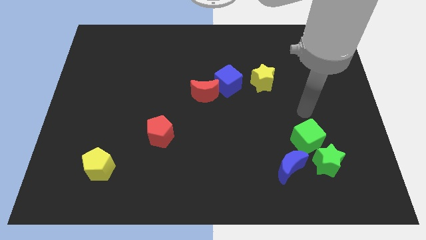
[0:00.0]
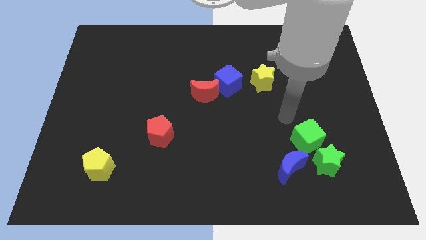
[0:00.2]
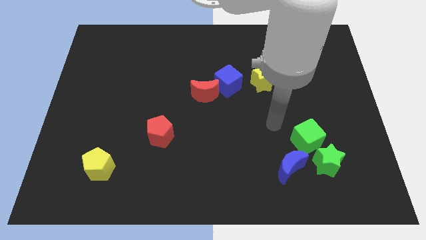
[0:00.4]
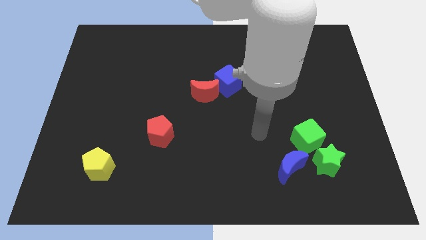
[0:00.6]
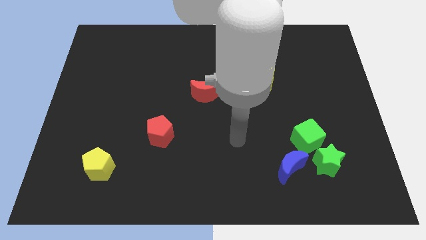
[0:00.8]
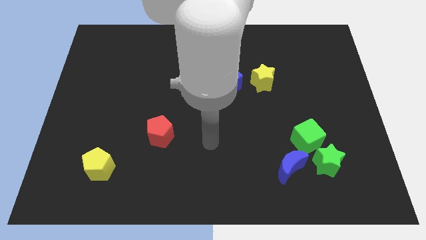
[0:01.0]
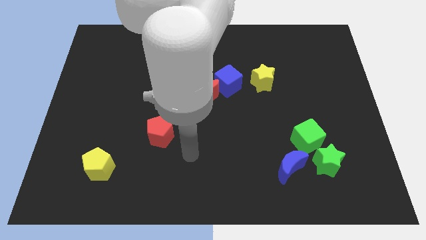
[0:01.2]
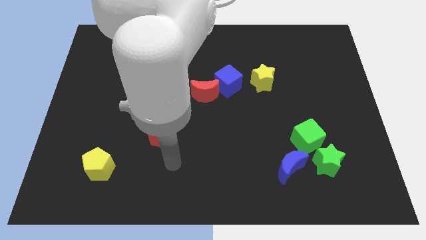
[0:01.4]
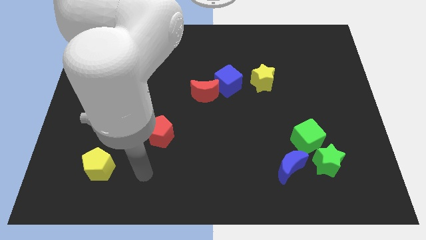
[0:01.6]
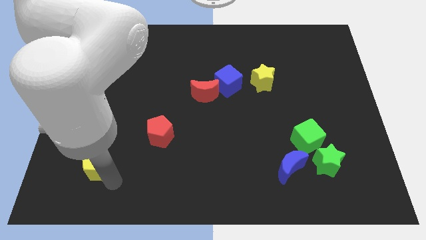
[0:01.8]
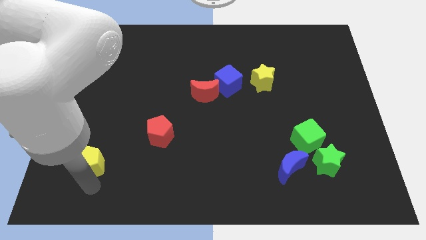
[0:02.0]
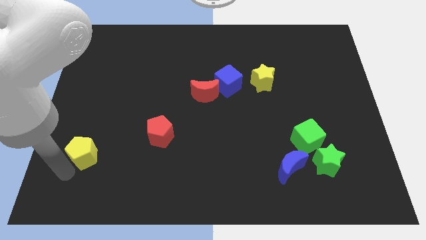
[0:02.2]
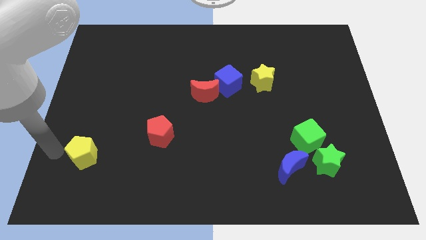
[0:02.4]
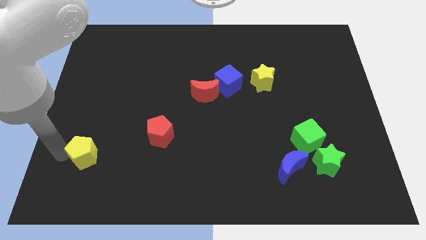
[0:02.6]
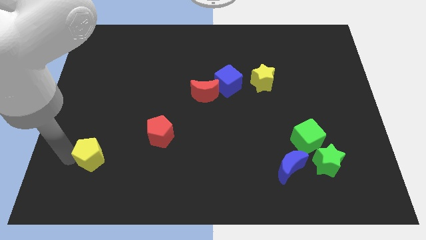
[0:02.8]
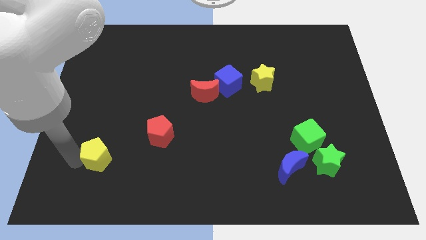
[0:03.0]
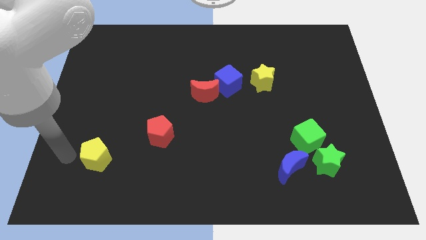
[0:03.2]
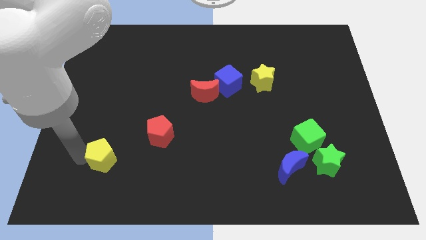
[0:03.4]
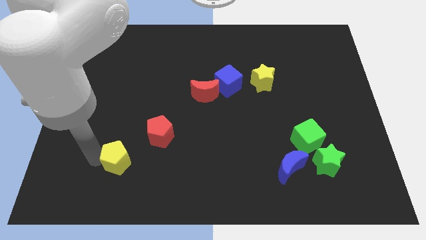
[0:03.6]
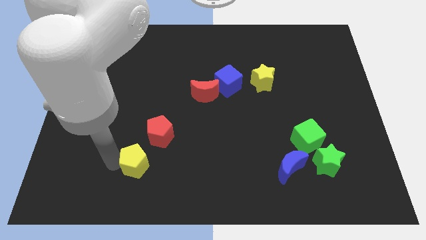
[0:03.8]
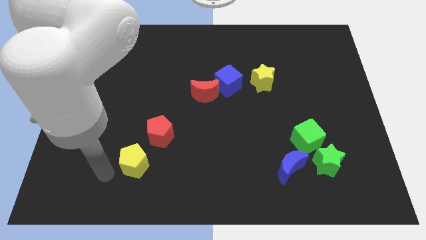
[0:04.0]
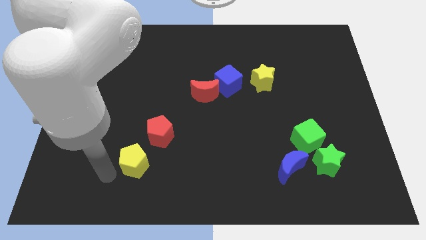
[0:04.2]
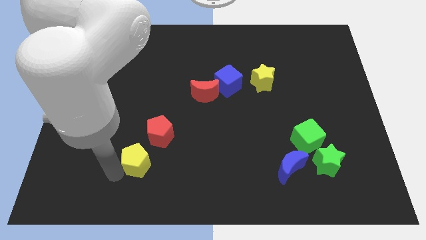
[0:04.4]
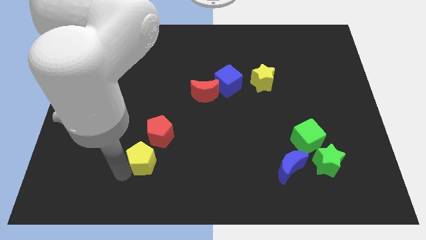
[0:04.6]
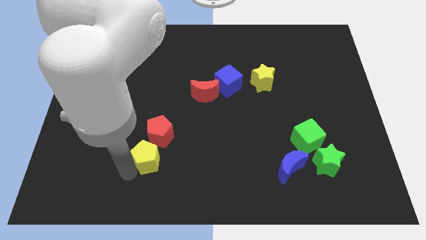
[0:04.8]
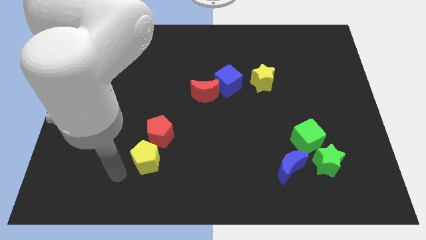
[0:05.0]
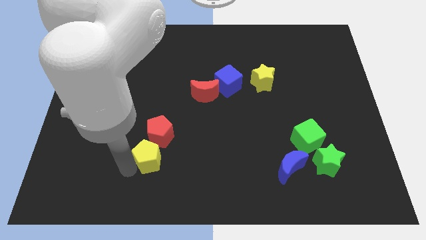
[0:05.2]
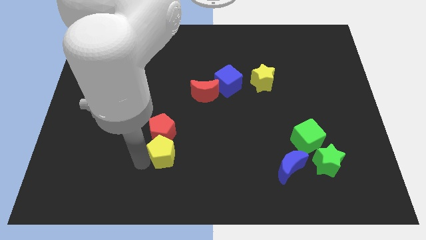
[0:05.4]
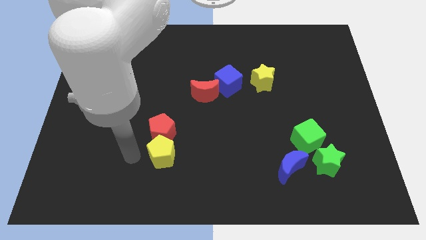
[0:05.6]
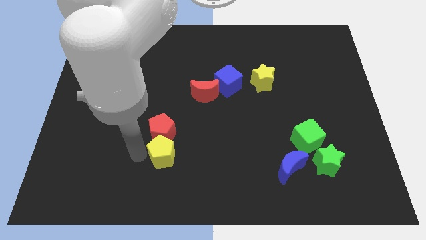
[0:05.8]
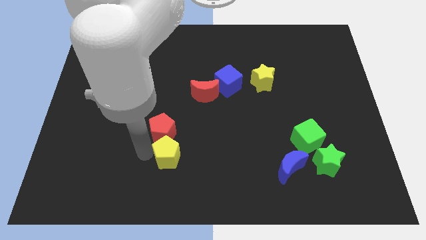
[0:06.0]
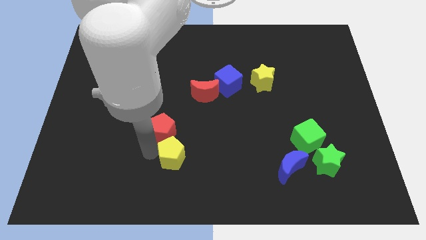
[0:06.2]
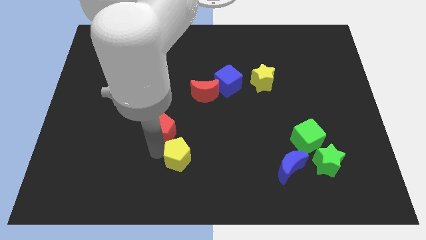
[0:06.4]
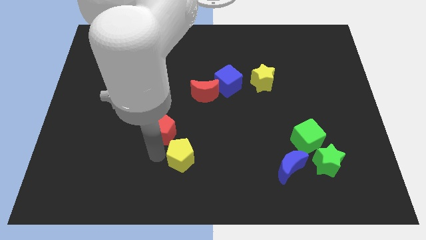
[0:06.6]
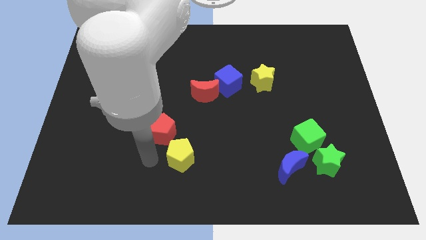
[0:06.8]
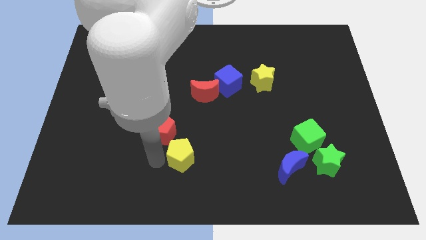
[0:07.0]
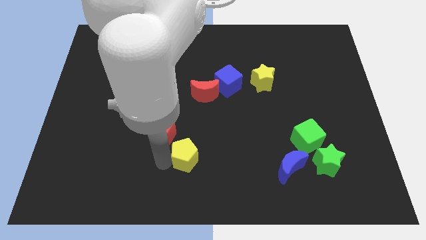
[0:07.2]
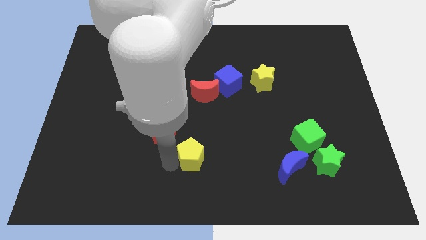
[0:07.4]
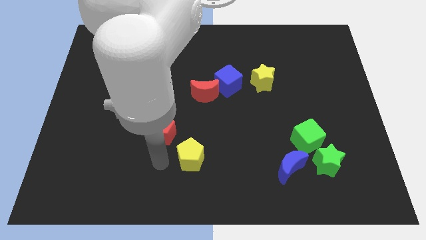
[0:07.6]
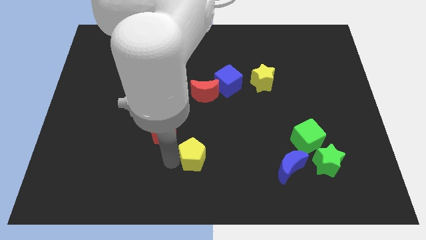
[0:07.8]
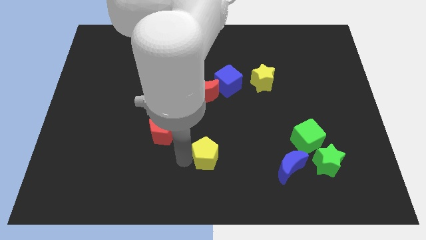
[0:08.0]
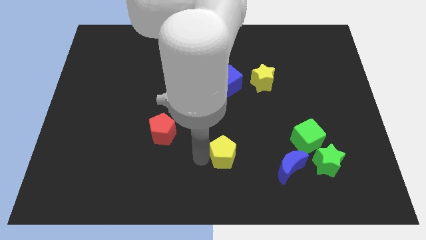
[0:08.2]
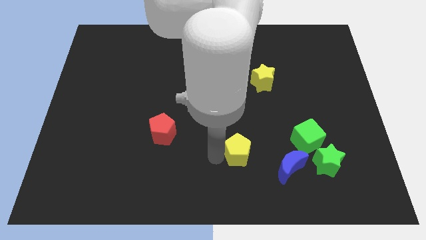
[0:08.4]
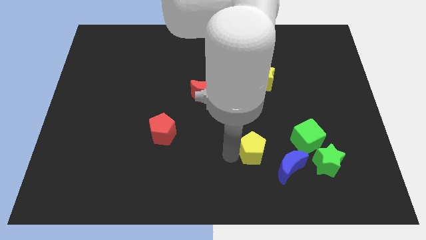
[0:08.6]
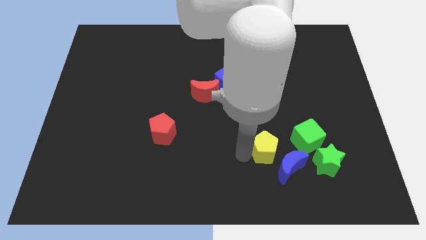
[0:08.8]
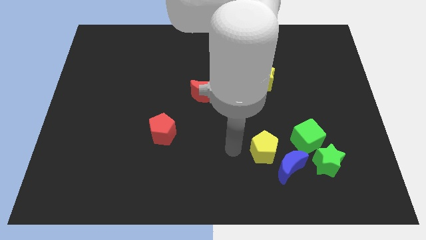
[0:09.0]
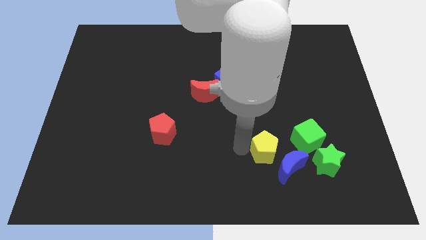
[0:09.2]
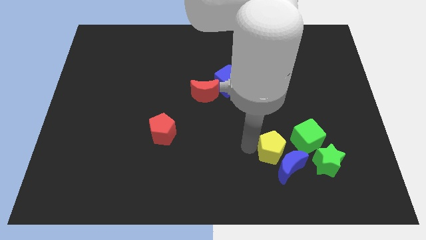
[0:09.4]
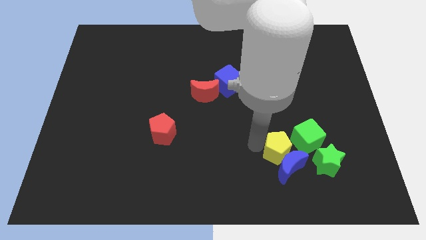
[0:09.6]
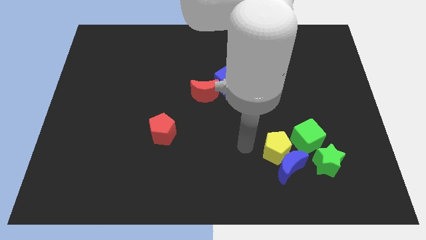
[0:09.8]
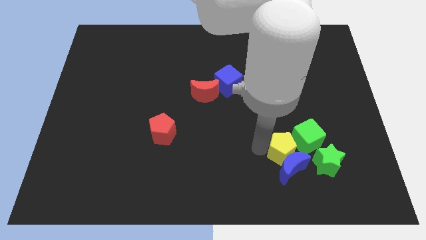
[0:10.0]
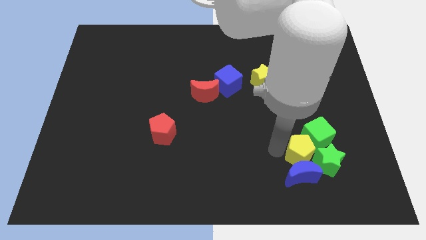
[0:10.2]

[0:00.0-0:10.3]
put the yellow pentagon close to the green star

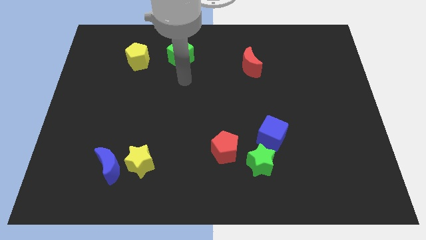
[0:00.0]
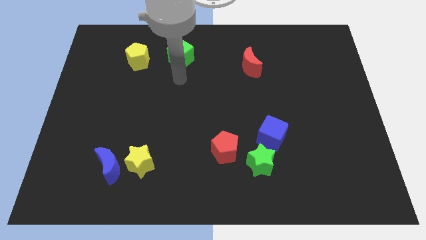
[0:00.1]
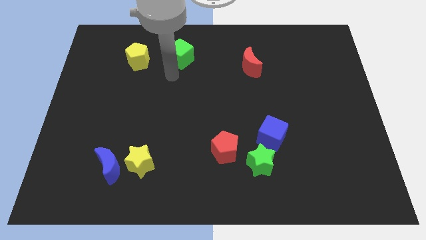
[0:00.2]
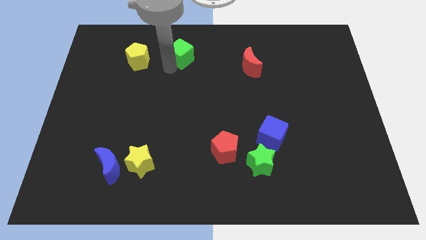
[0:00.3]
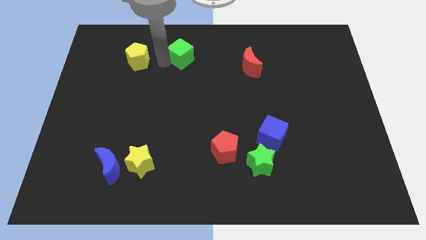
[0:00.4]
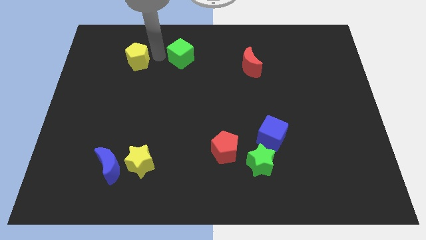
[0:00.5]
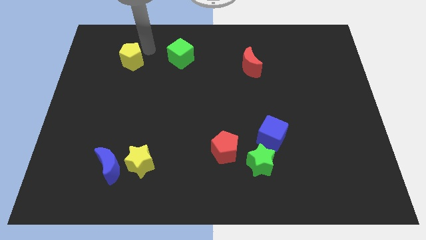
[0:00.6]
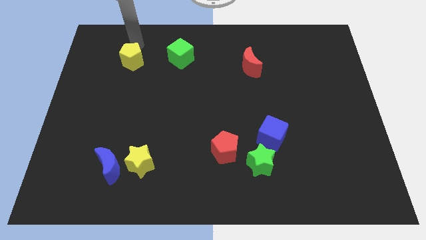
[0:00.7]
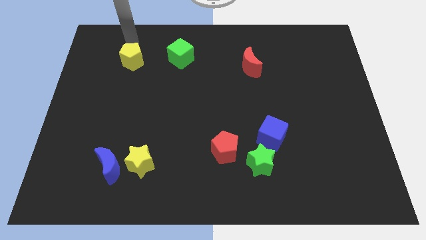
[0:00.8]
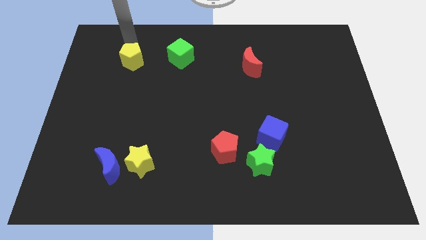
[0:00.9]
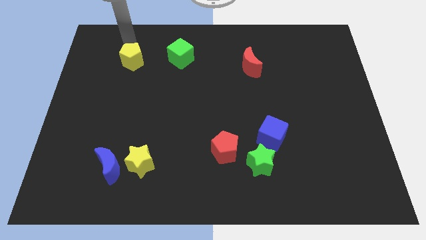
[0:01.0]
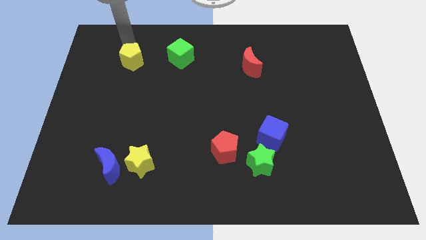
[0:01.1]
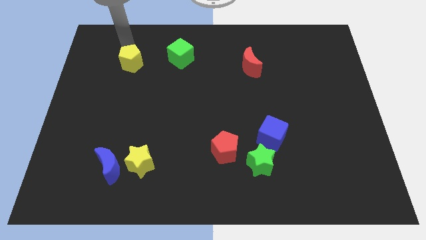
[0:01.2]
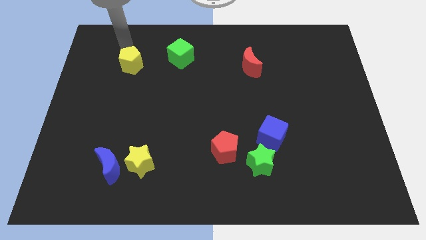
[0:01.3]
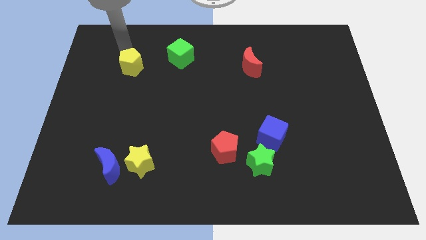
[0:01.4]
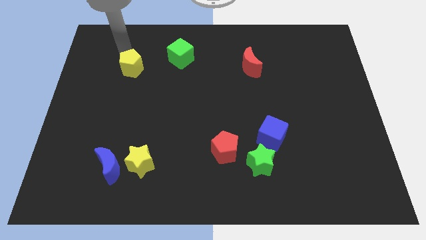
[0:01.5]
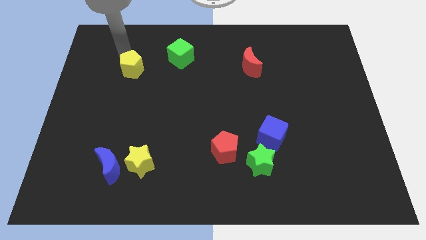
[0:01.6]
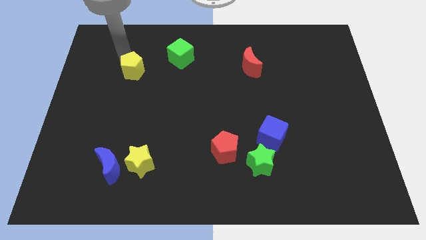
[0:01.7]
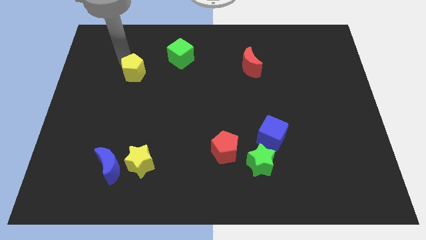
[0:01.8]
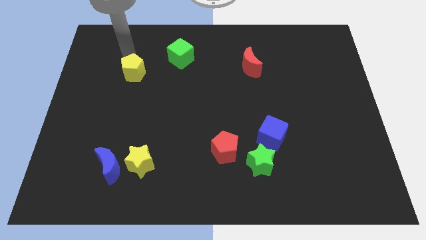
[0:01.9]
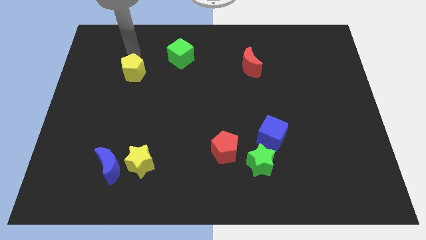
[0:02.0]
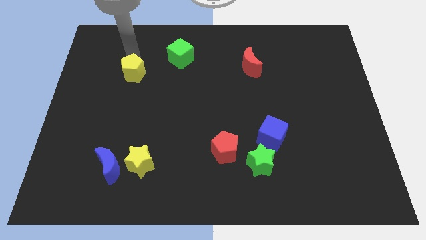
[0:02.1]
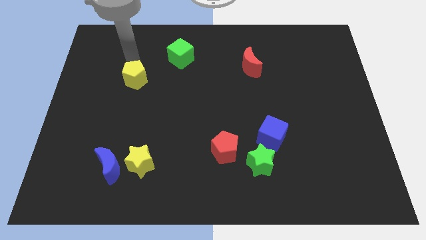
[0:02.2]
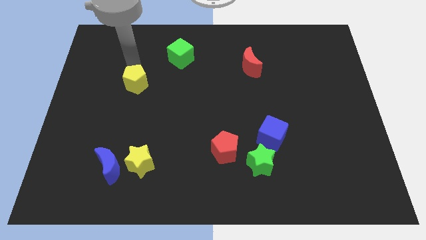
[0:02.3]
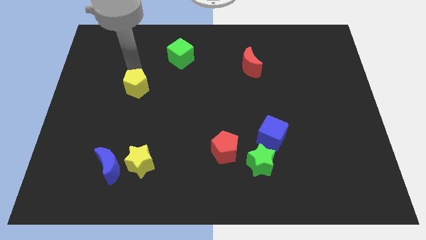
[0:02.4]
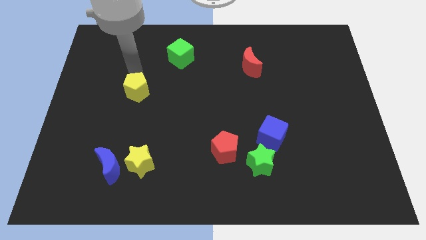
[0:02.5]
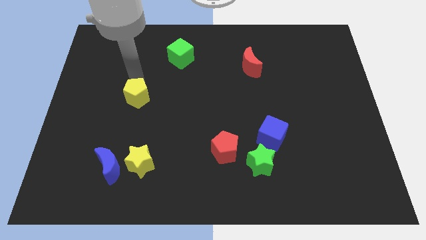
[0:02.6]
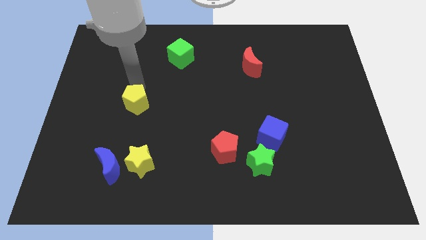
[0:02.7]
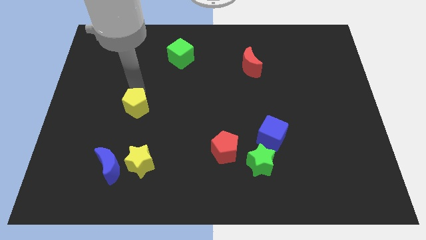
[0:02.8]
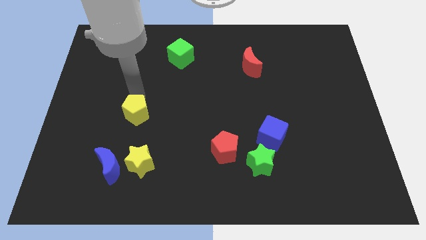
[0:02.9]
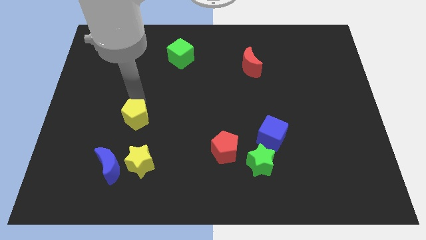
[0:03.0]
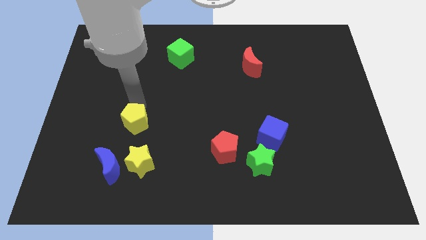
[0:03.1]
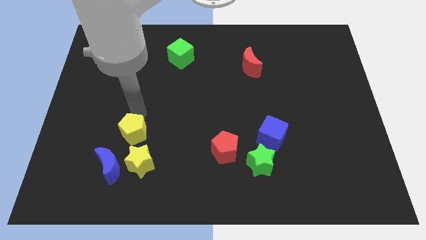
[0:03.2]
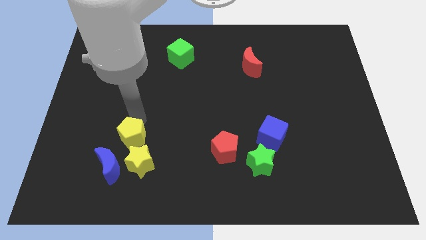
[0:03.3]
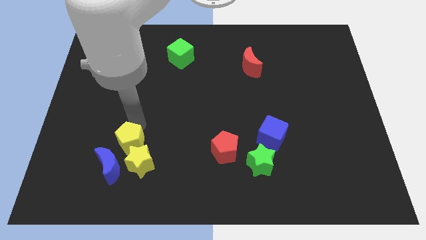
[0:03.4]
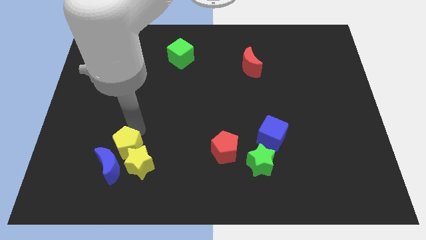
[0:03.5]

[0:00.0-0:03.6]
slide the yellow pentagon to the blue moon
